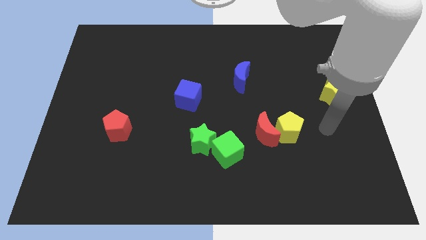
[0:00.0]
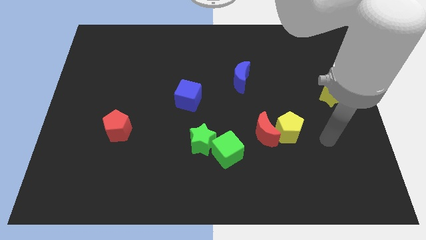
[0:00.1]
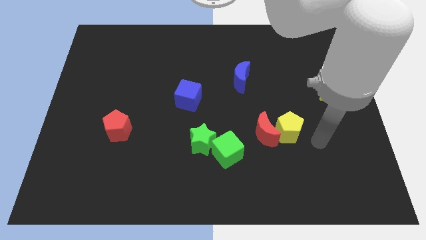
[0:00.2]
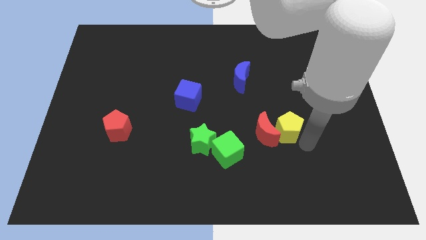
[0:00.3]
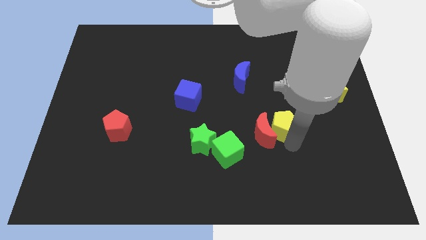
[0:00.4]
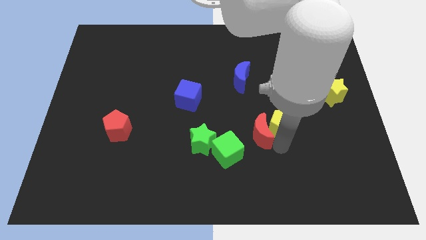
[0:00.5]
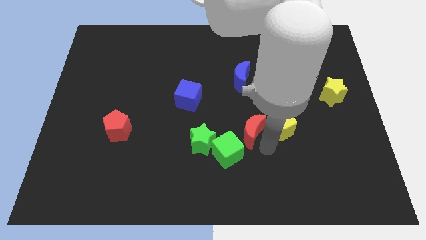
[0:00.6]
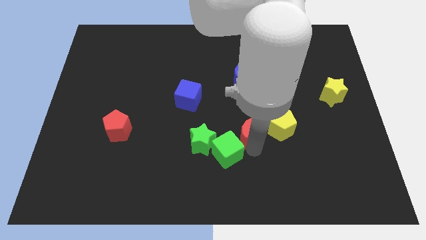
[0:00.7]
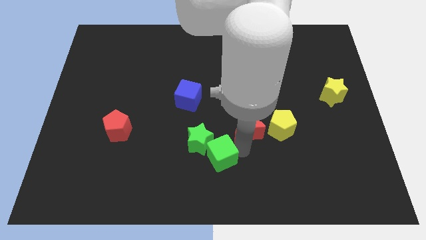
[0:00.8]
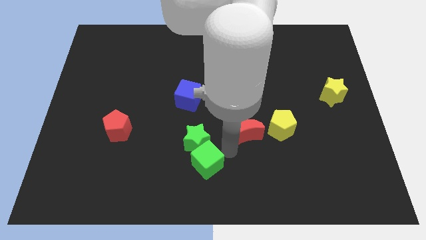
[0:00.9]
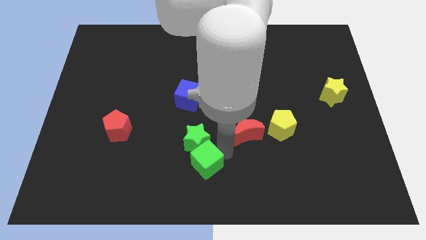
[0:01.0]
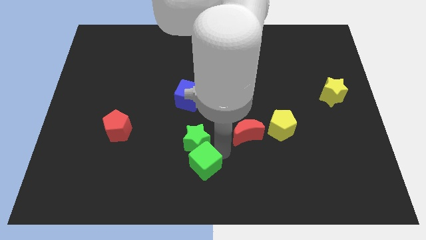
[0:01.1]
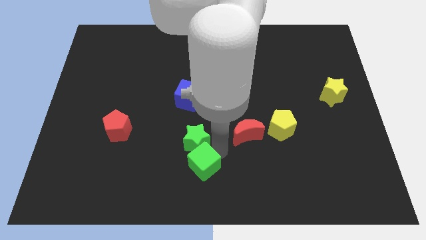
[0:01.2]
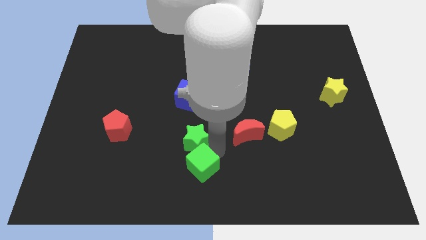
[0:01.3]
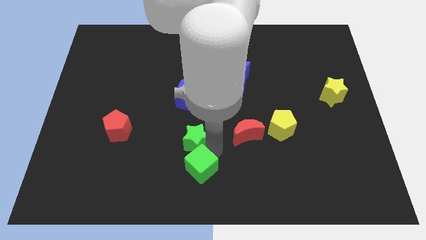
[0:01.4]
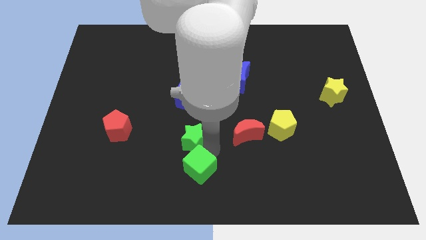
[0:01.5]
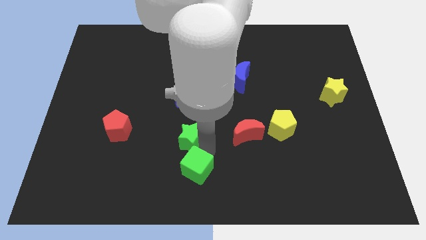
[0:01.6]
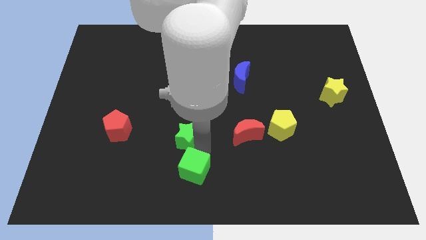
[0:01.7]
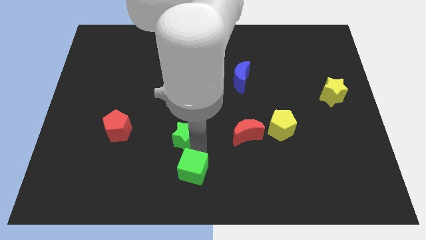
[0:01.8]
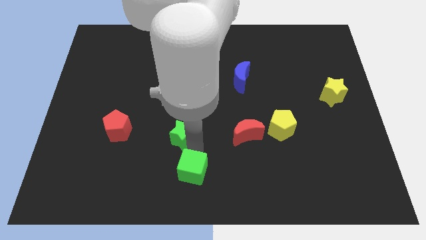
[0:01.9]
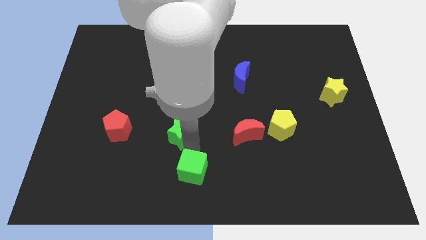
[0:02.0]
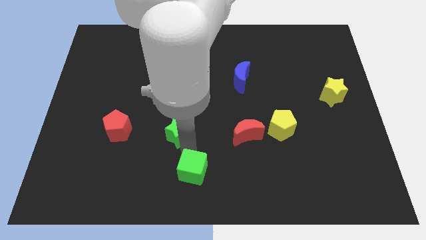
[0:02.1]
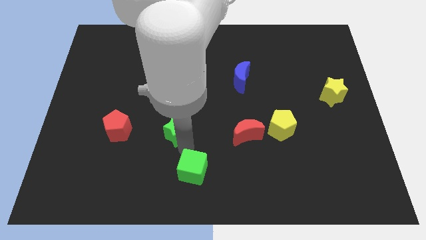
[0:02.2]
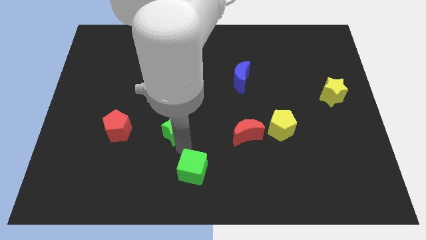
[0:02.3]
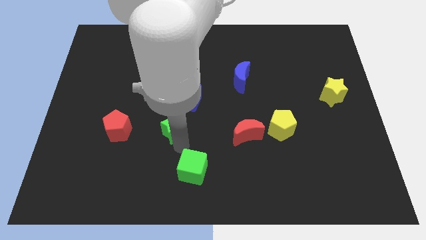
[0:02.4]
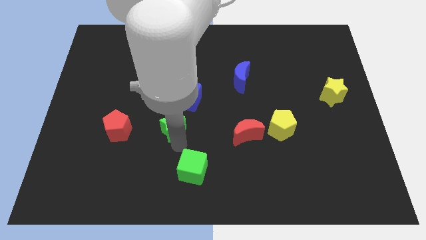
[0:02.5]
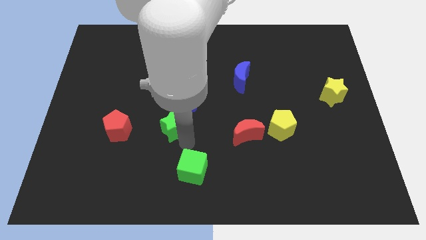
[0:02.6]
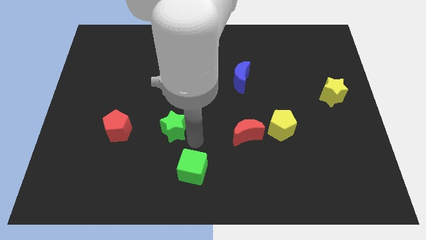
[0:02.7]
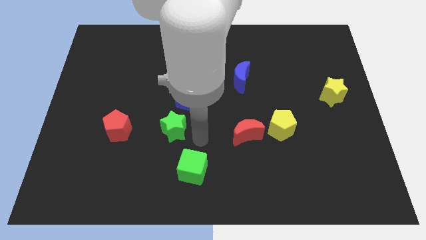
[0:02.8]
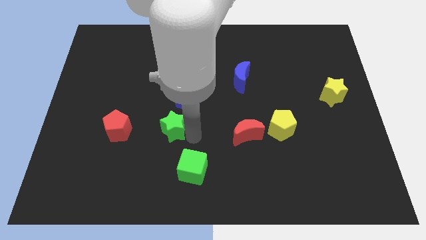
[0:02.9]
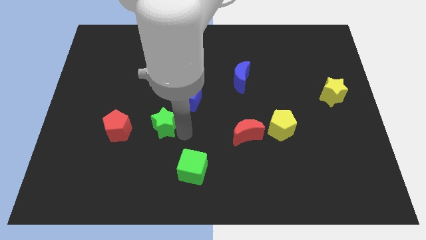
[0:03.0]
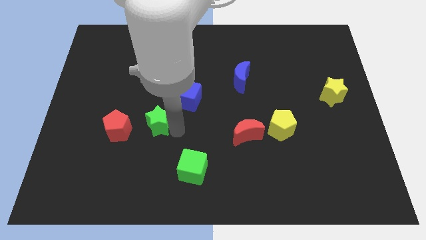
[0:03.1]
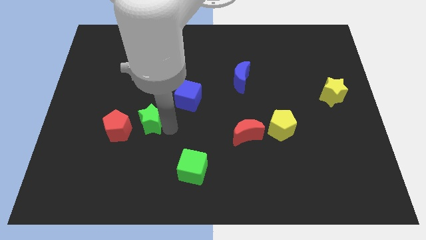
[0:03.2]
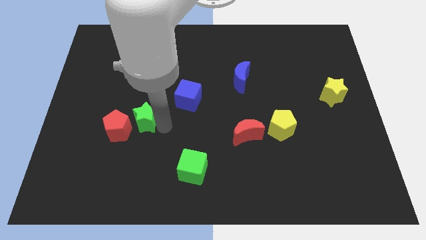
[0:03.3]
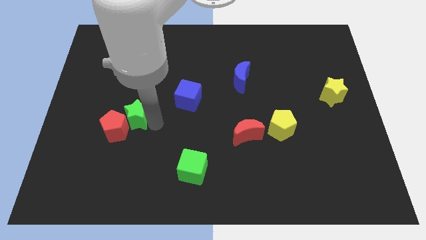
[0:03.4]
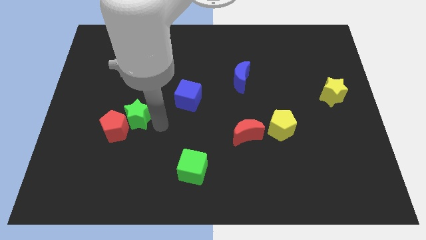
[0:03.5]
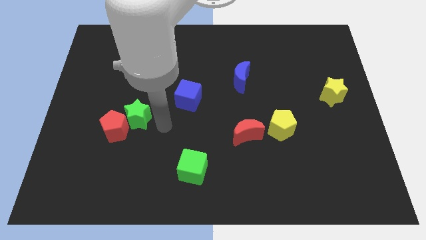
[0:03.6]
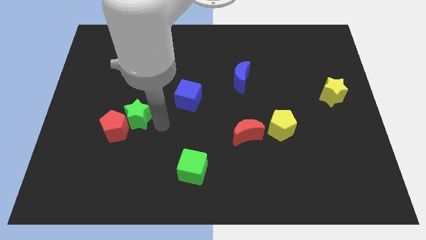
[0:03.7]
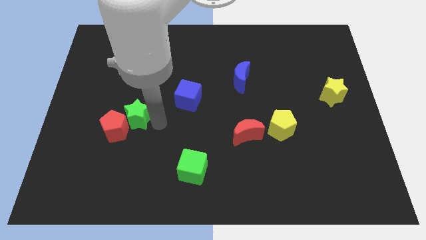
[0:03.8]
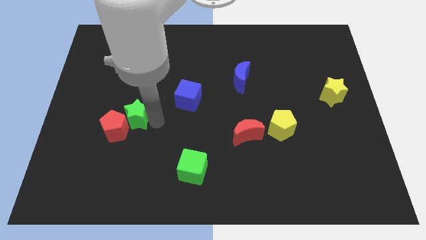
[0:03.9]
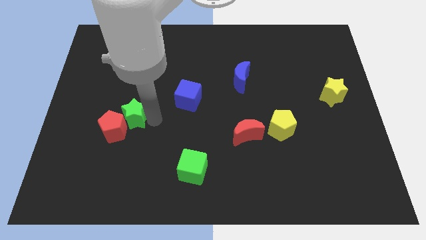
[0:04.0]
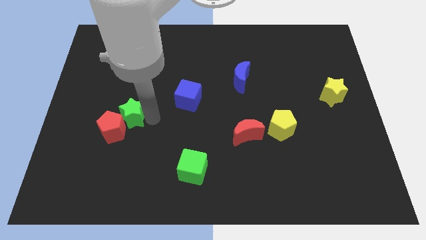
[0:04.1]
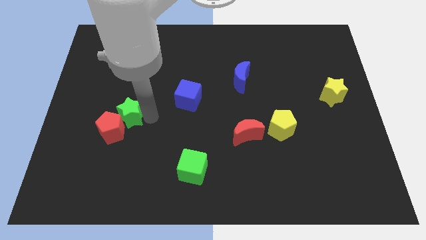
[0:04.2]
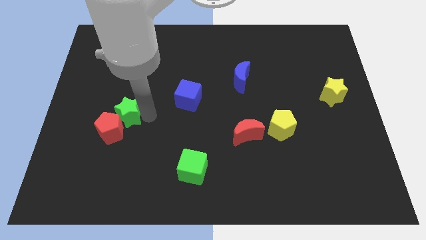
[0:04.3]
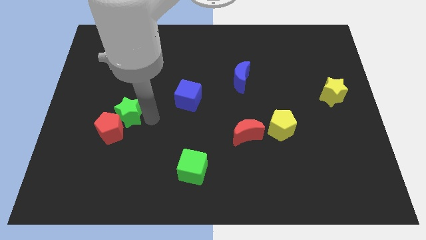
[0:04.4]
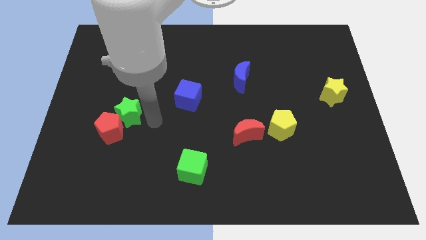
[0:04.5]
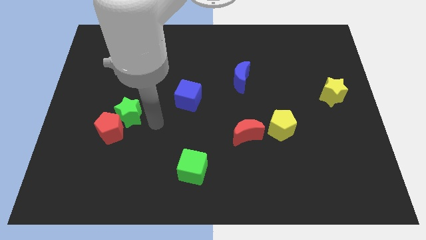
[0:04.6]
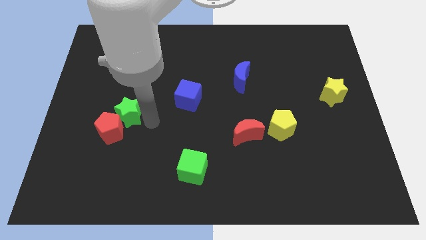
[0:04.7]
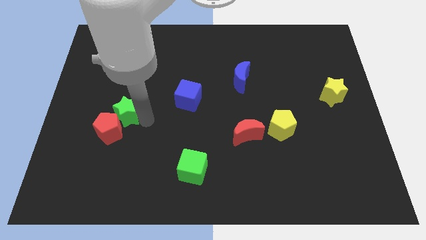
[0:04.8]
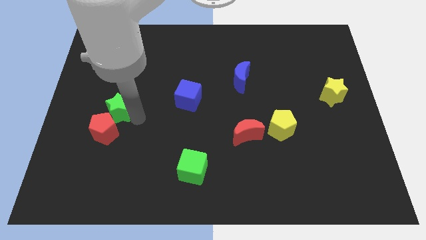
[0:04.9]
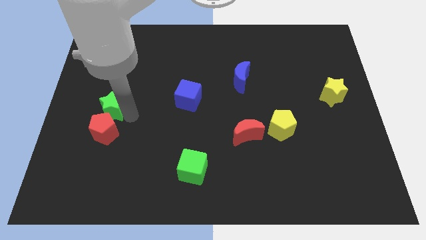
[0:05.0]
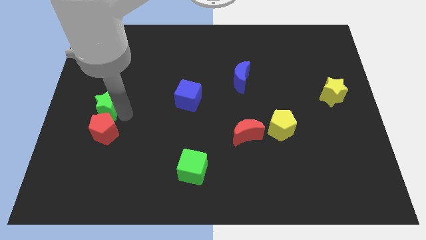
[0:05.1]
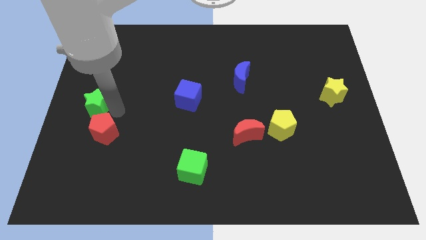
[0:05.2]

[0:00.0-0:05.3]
put the green star to the left side of the board
